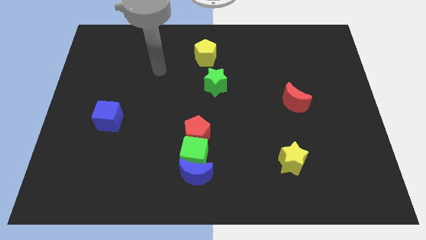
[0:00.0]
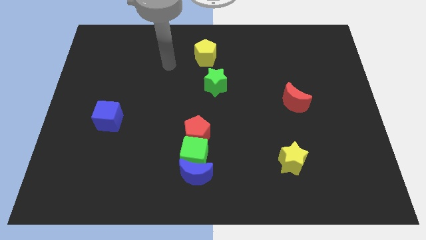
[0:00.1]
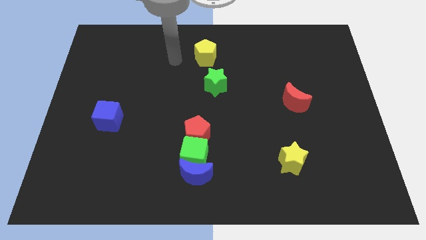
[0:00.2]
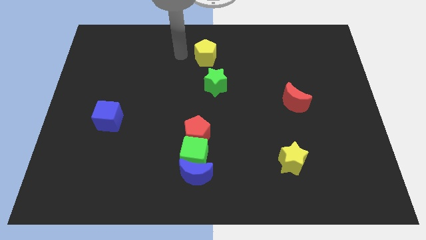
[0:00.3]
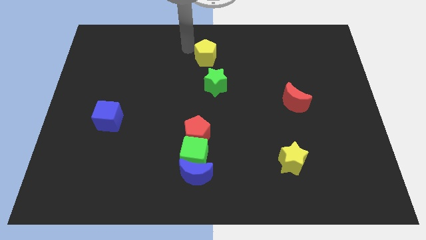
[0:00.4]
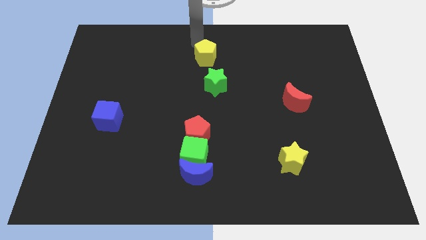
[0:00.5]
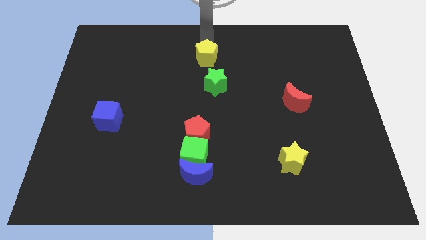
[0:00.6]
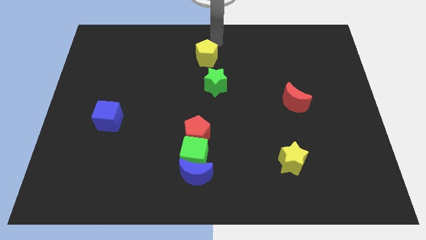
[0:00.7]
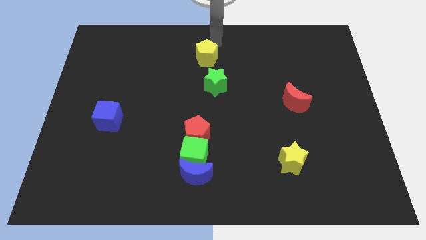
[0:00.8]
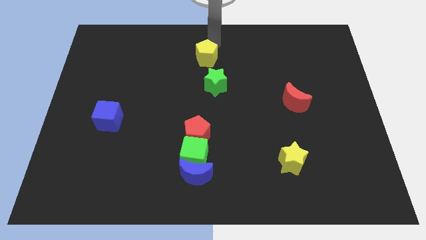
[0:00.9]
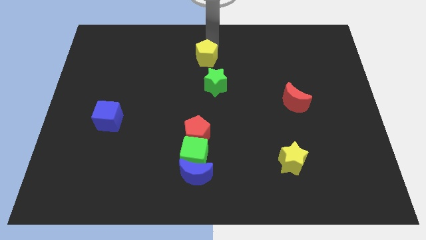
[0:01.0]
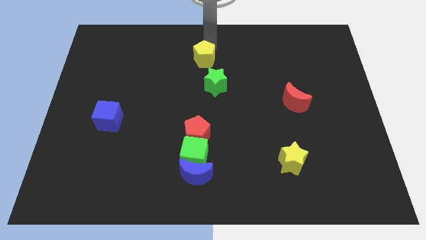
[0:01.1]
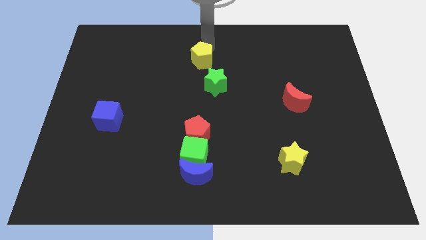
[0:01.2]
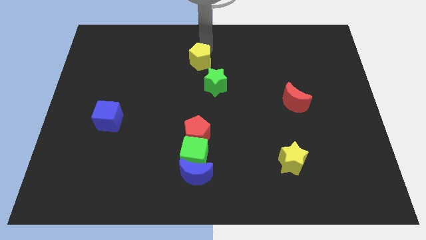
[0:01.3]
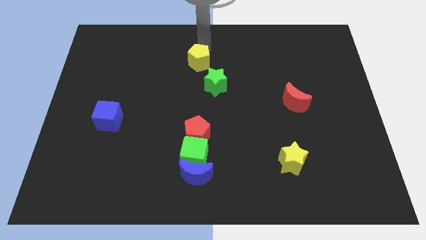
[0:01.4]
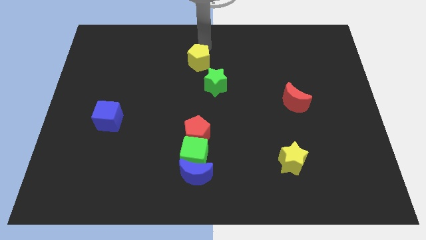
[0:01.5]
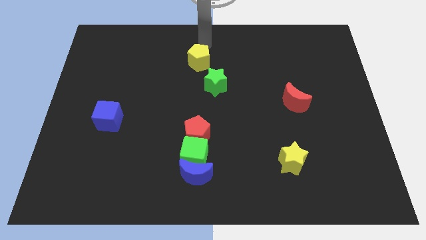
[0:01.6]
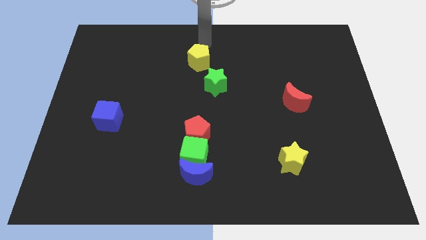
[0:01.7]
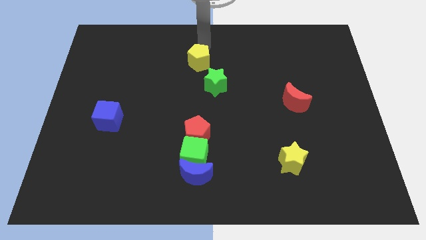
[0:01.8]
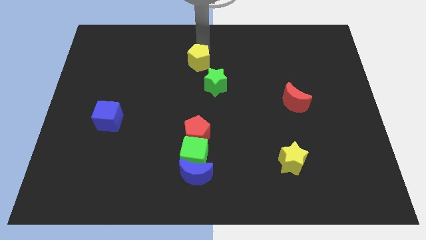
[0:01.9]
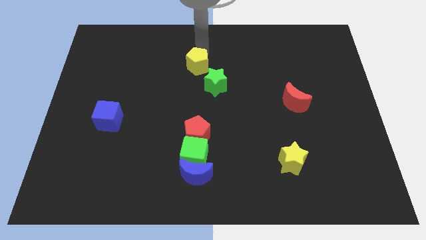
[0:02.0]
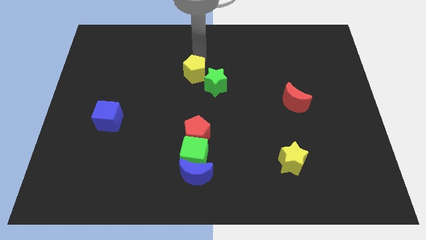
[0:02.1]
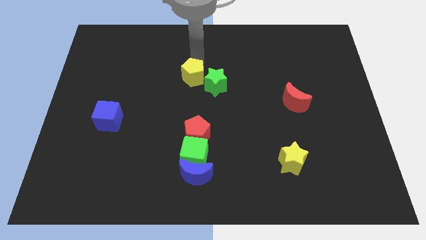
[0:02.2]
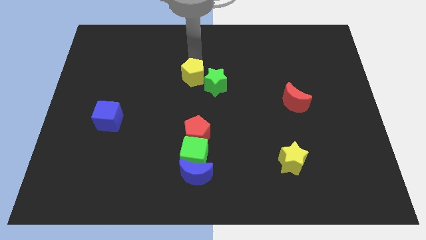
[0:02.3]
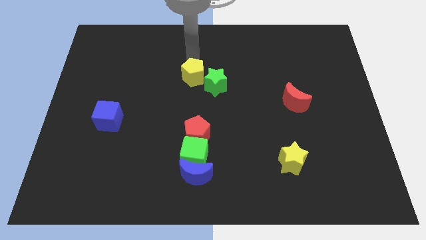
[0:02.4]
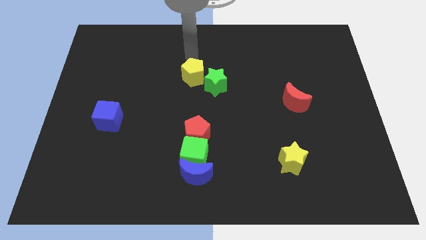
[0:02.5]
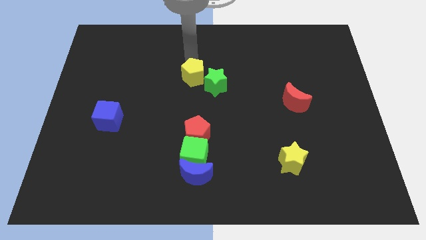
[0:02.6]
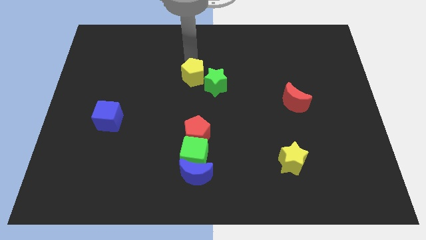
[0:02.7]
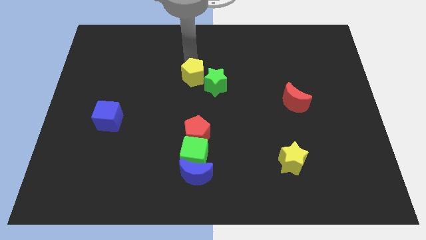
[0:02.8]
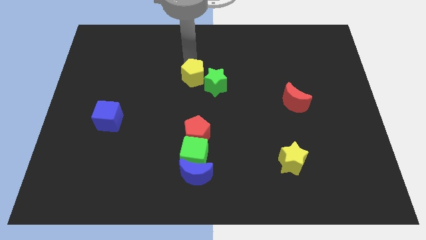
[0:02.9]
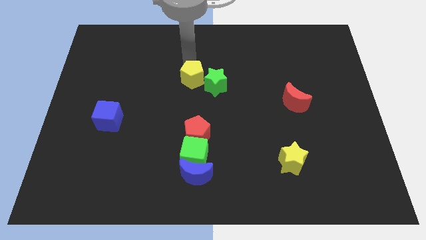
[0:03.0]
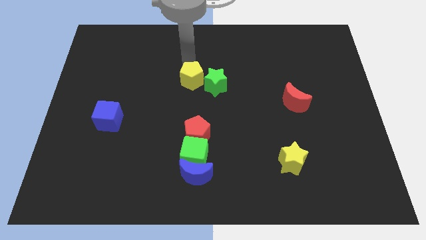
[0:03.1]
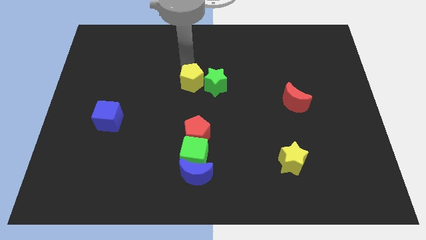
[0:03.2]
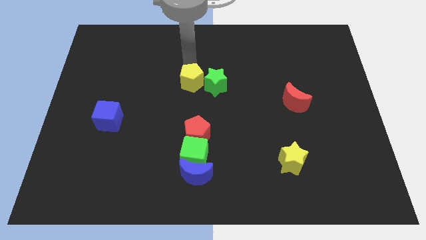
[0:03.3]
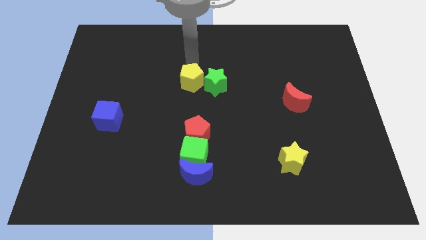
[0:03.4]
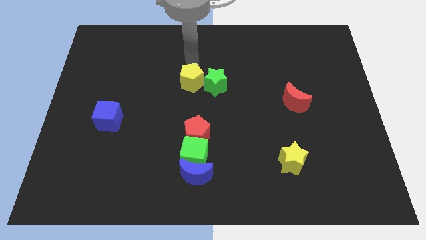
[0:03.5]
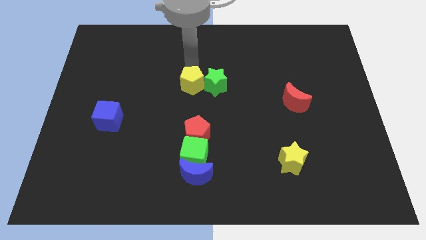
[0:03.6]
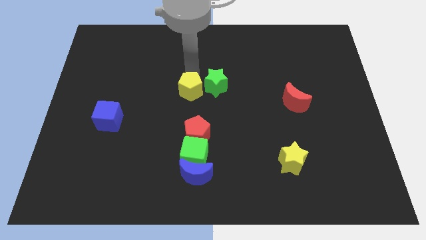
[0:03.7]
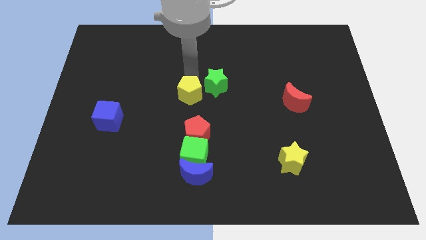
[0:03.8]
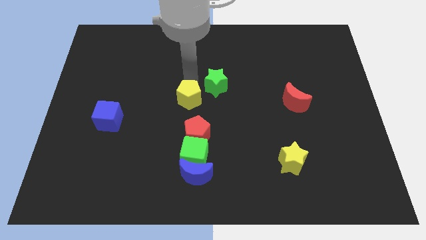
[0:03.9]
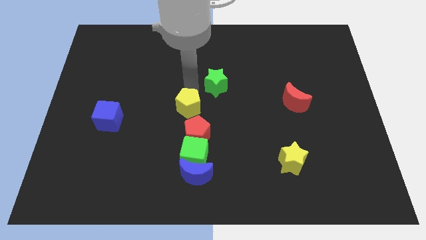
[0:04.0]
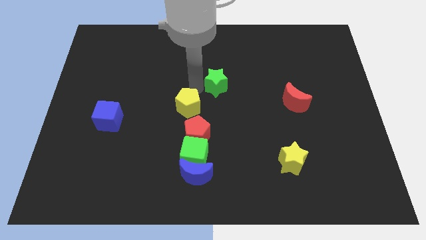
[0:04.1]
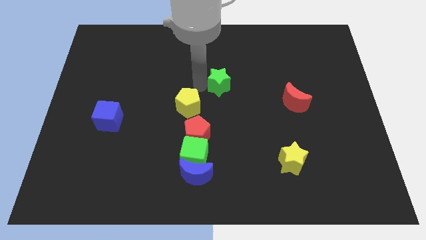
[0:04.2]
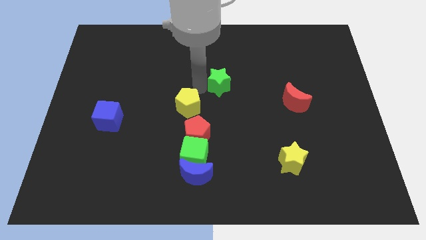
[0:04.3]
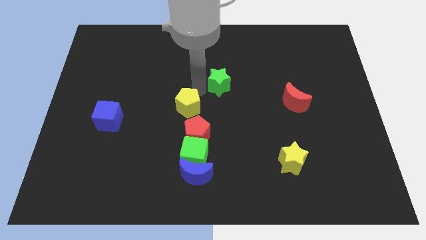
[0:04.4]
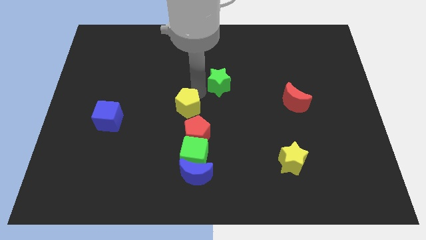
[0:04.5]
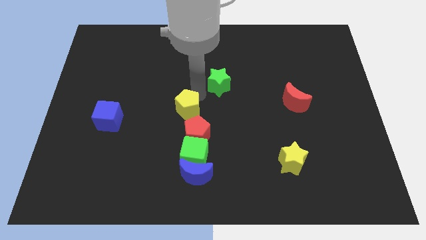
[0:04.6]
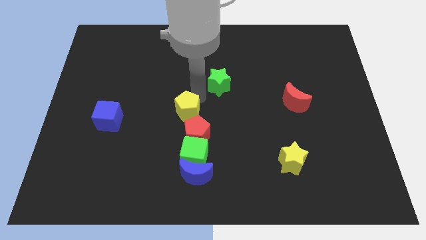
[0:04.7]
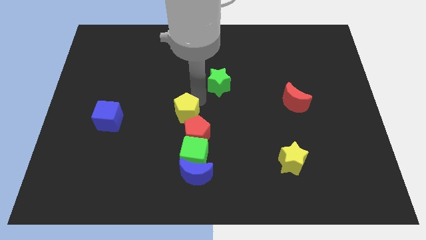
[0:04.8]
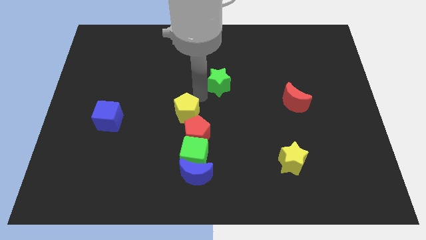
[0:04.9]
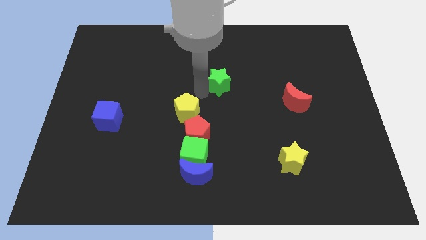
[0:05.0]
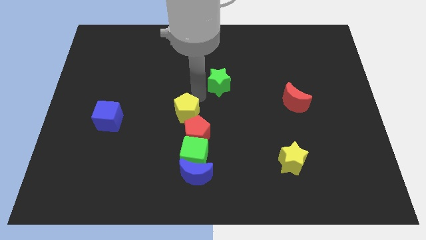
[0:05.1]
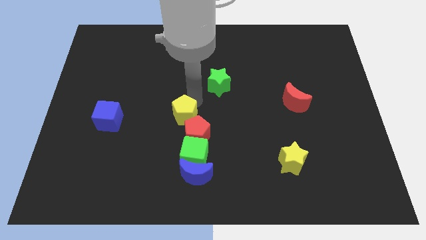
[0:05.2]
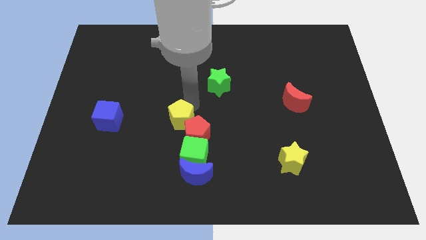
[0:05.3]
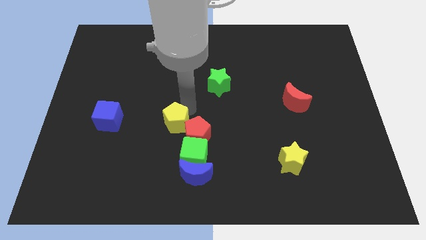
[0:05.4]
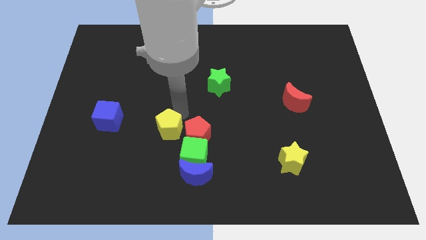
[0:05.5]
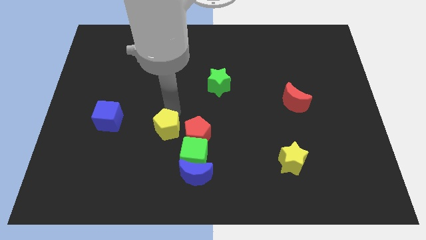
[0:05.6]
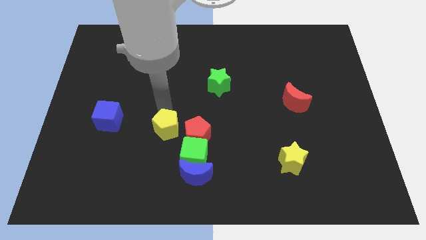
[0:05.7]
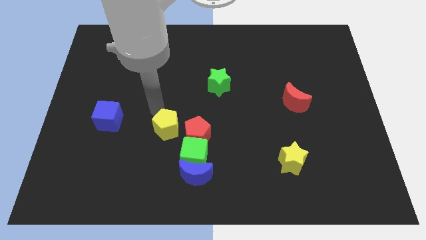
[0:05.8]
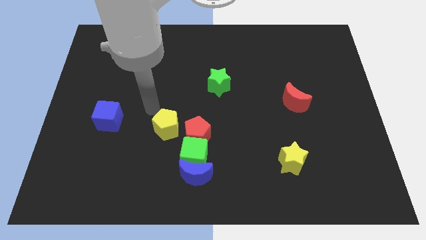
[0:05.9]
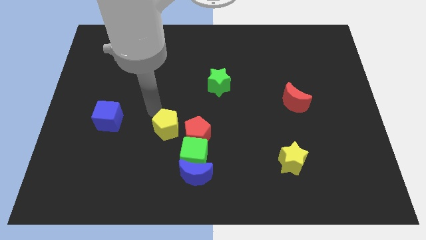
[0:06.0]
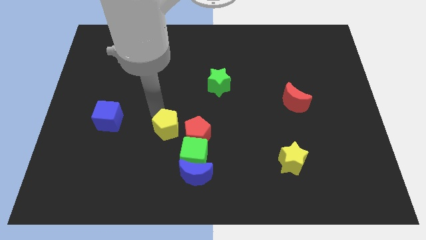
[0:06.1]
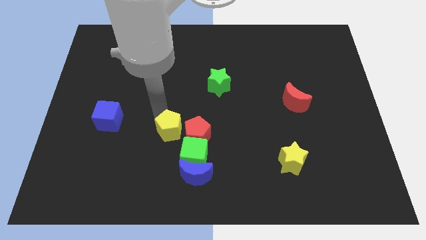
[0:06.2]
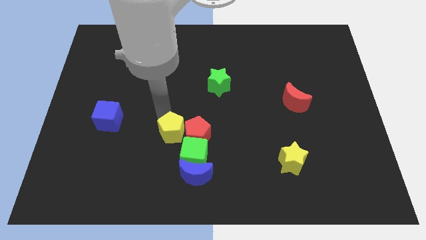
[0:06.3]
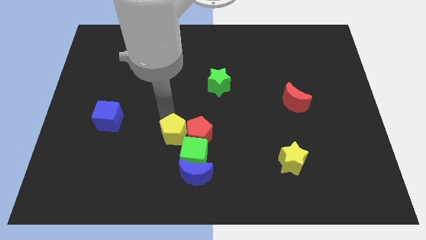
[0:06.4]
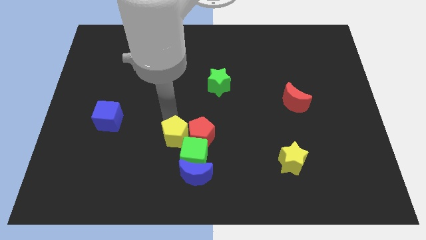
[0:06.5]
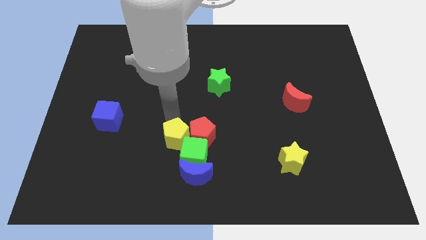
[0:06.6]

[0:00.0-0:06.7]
slide the yellow pentagon towards the green cube

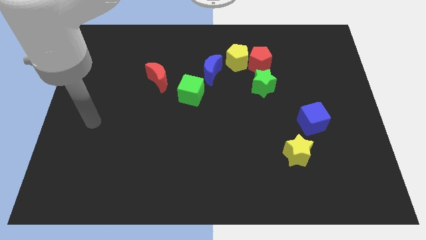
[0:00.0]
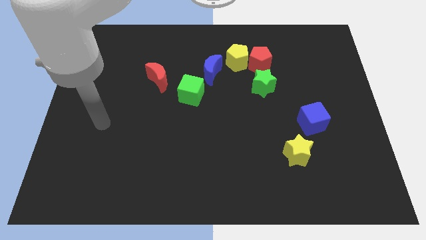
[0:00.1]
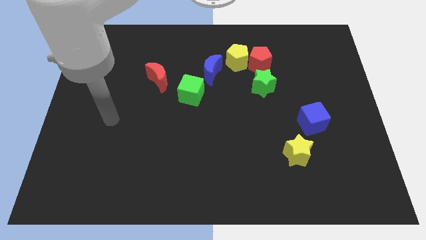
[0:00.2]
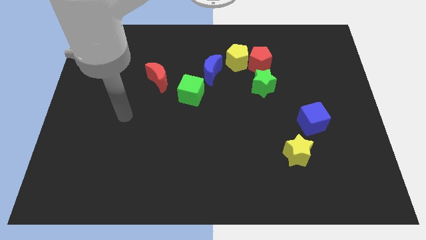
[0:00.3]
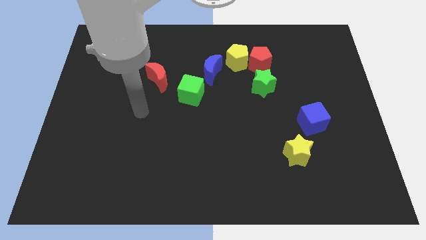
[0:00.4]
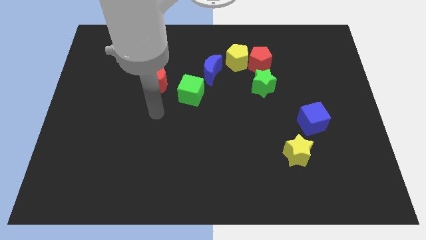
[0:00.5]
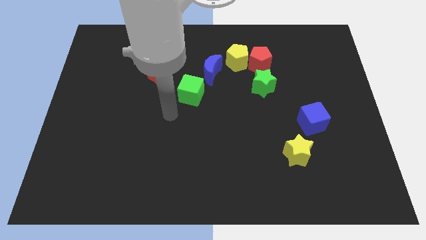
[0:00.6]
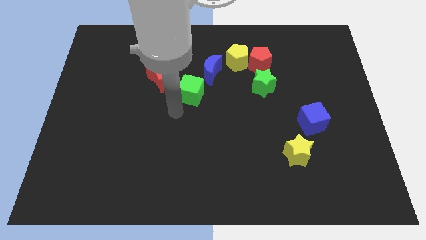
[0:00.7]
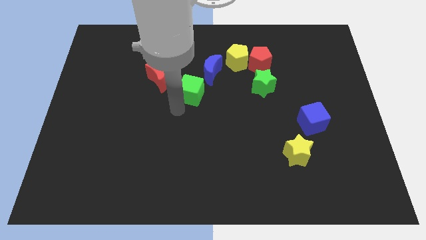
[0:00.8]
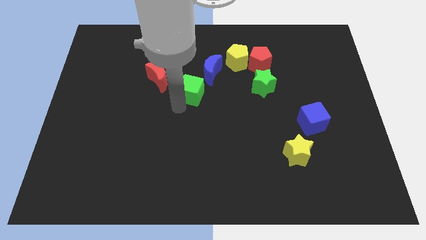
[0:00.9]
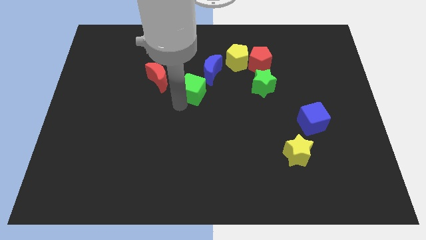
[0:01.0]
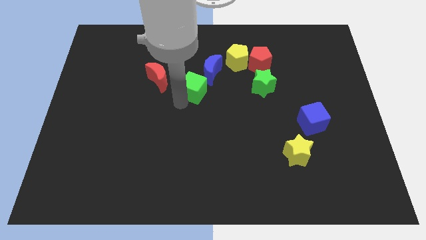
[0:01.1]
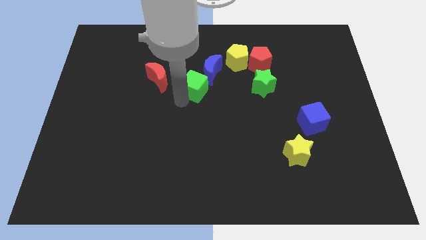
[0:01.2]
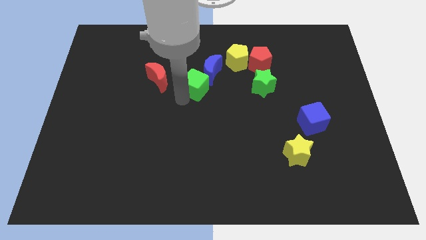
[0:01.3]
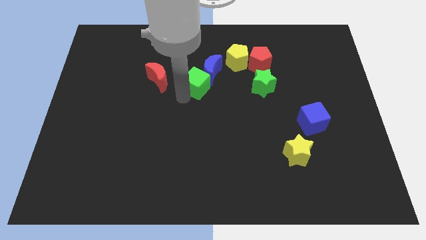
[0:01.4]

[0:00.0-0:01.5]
push the green cube towards the blue moon
